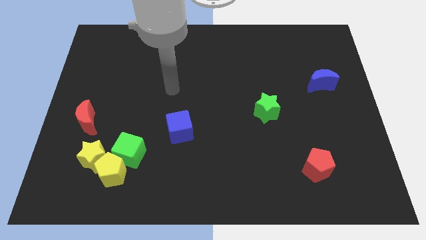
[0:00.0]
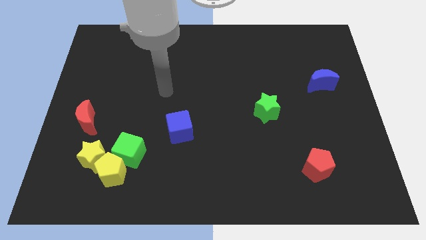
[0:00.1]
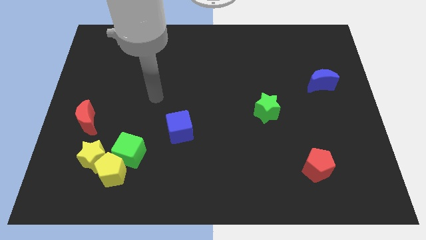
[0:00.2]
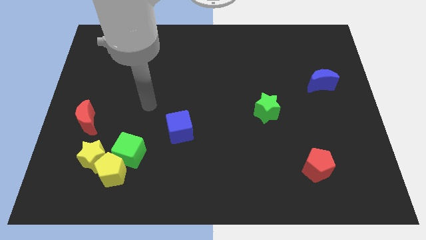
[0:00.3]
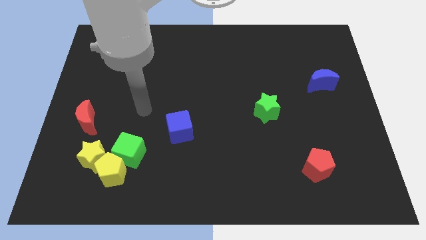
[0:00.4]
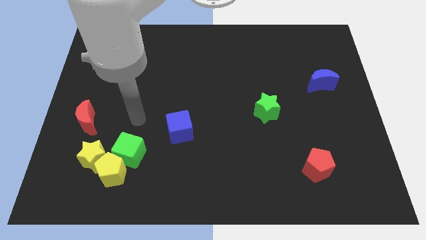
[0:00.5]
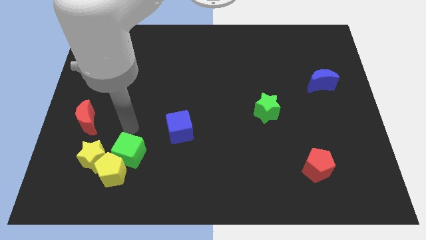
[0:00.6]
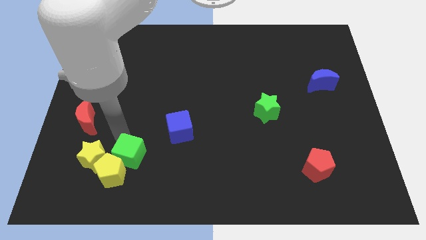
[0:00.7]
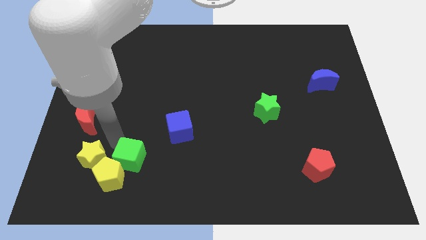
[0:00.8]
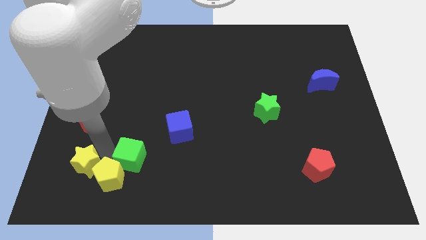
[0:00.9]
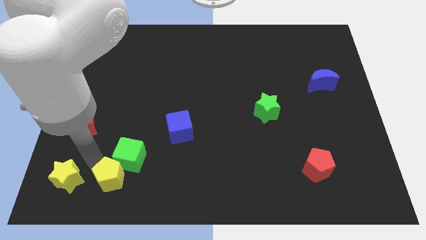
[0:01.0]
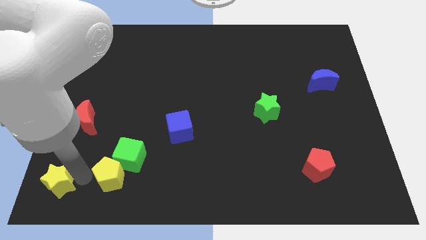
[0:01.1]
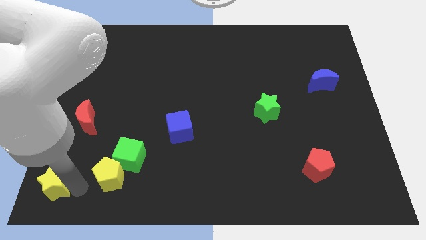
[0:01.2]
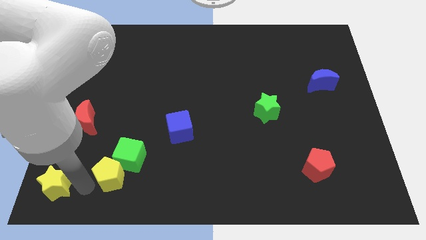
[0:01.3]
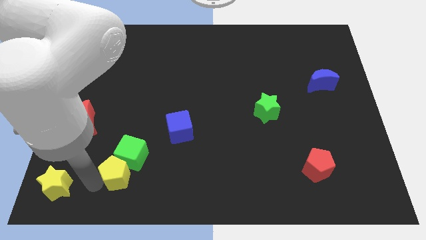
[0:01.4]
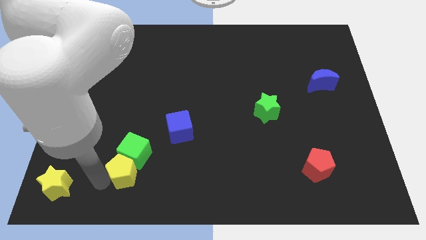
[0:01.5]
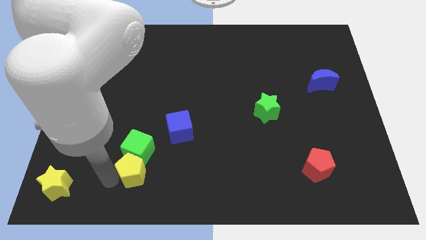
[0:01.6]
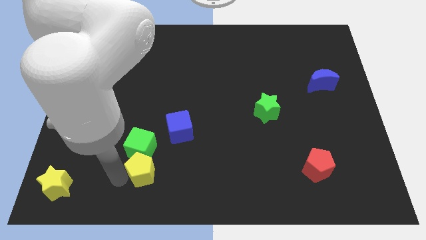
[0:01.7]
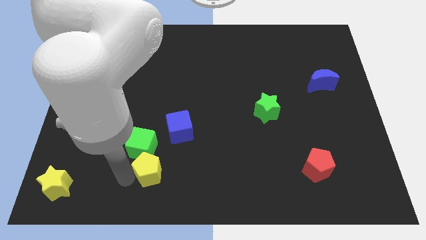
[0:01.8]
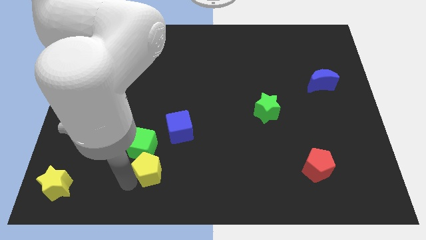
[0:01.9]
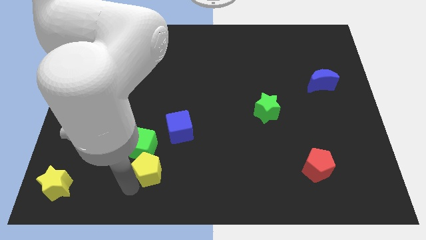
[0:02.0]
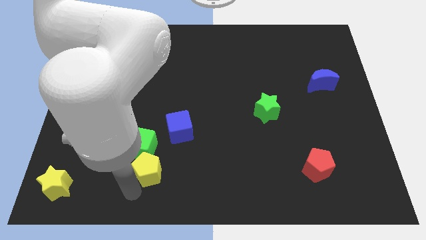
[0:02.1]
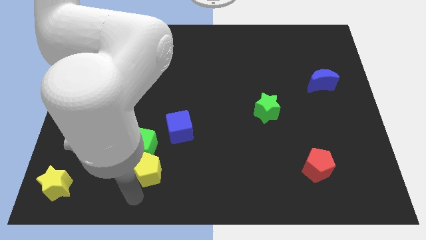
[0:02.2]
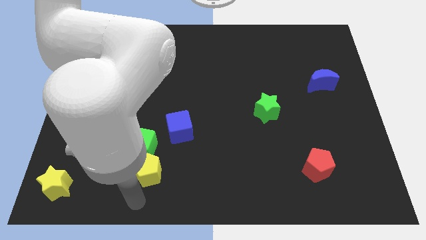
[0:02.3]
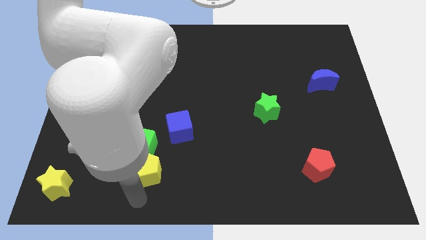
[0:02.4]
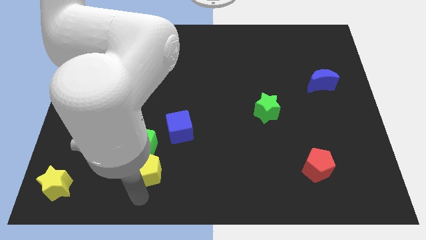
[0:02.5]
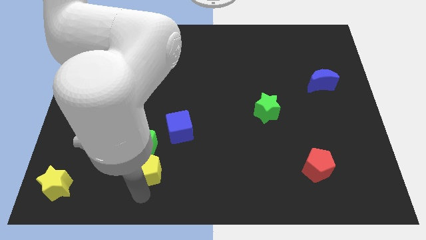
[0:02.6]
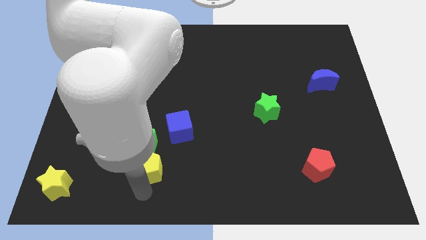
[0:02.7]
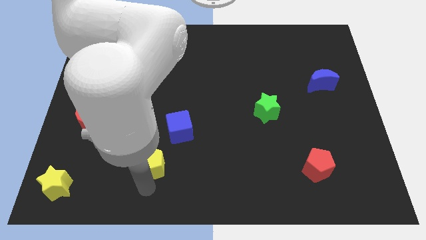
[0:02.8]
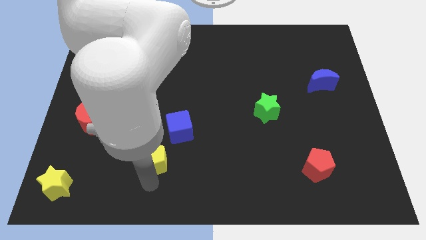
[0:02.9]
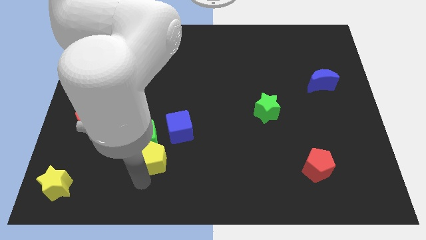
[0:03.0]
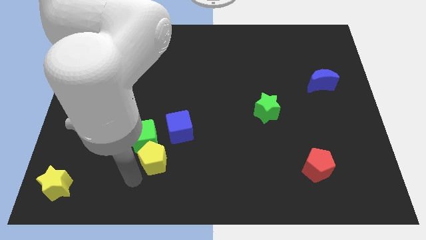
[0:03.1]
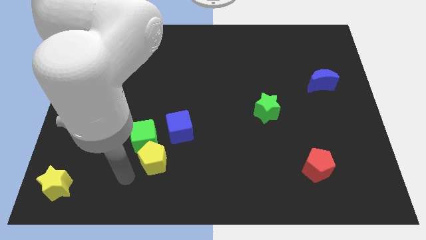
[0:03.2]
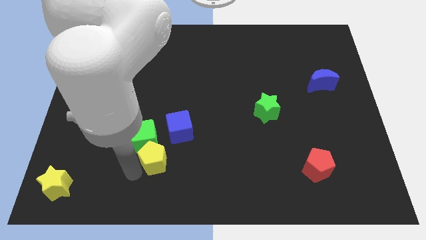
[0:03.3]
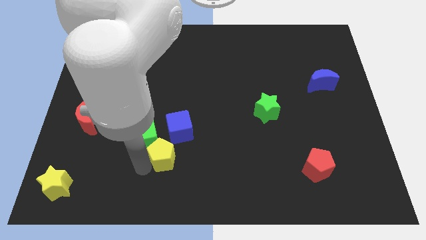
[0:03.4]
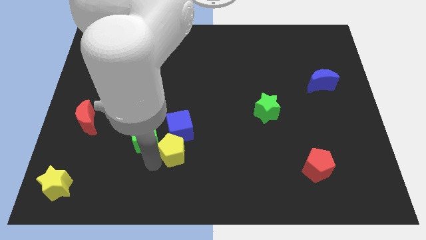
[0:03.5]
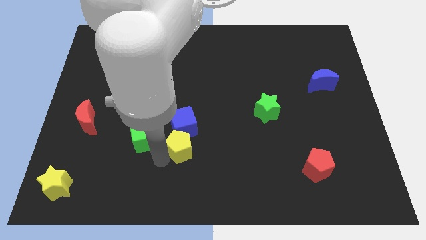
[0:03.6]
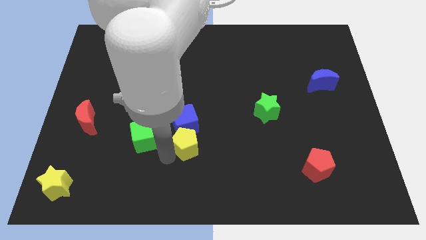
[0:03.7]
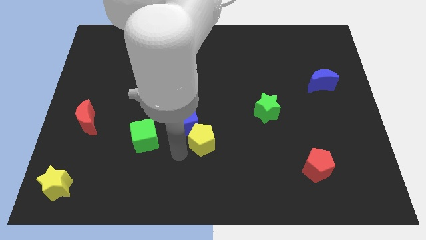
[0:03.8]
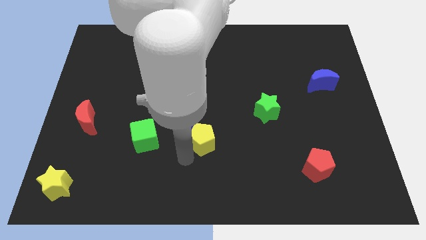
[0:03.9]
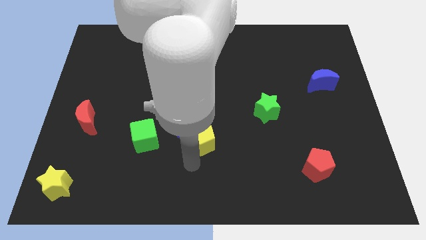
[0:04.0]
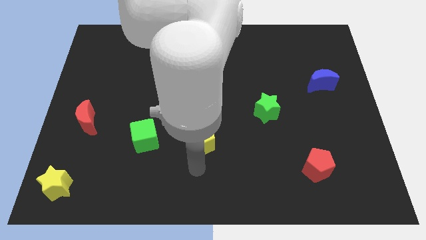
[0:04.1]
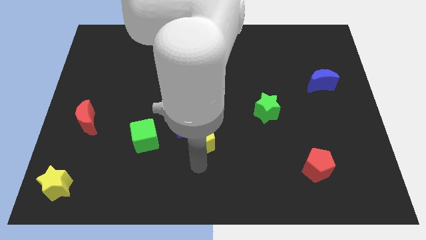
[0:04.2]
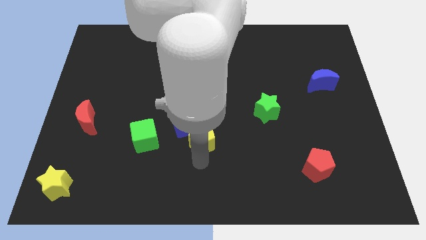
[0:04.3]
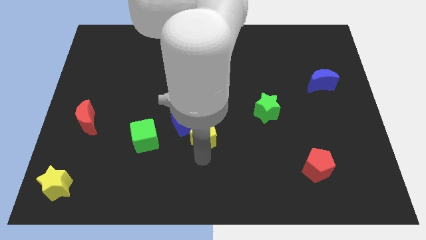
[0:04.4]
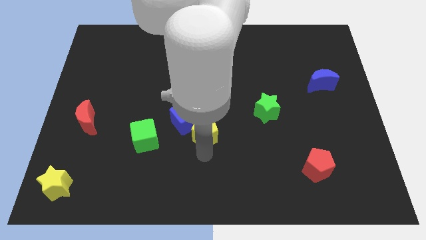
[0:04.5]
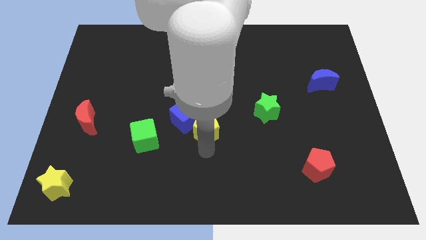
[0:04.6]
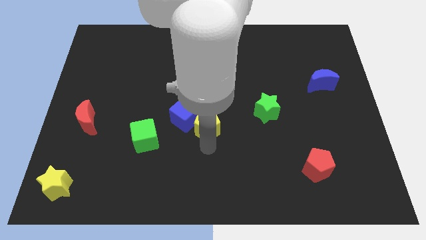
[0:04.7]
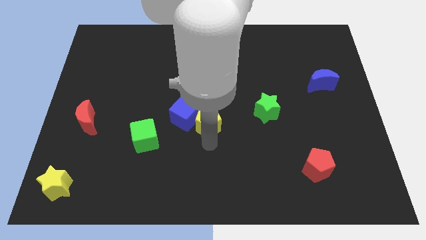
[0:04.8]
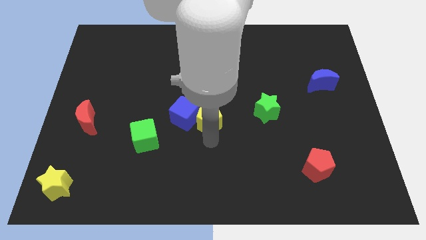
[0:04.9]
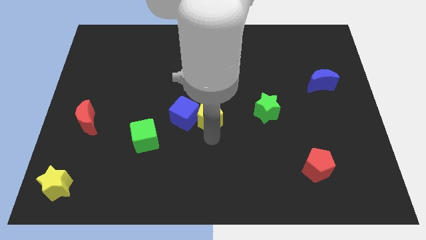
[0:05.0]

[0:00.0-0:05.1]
put the yellow pentagon to the top right of the blue cube

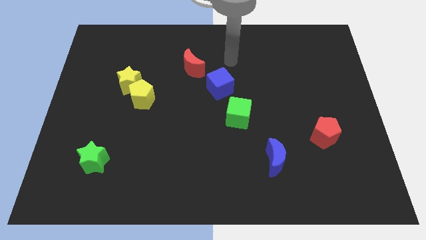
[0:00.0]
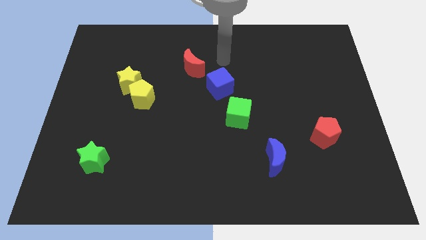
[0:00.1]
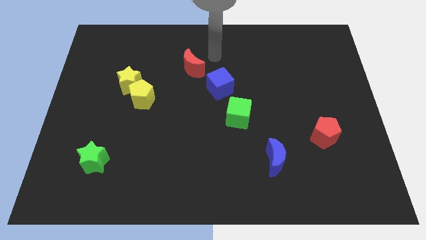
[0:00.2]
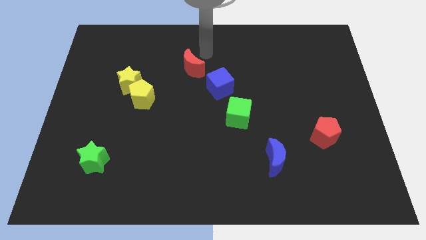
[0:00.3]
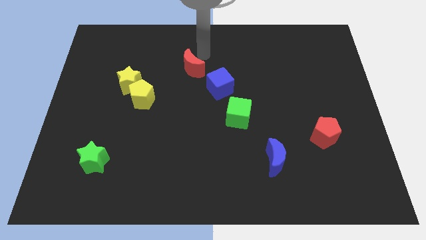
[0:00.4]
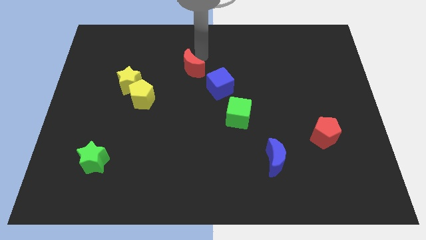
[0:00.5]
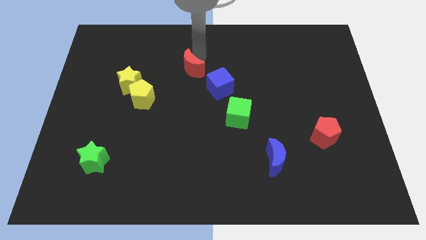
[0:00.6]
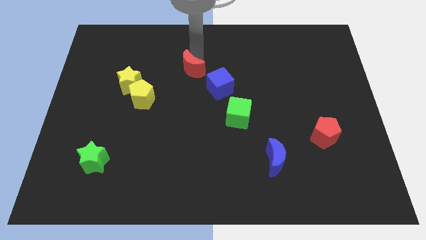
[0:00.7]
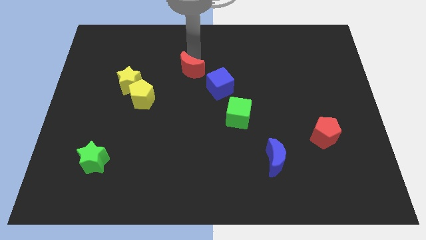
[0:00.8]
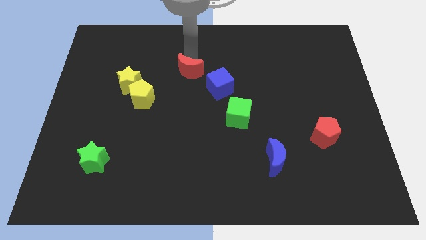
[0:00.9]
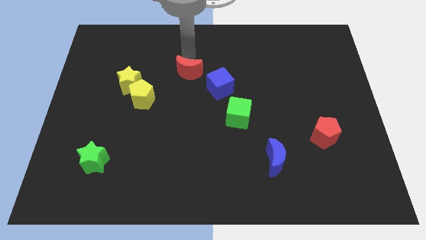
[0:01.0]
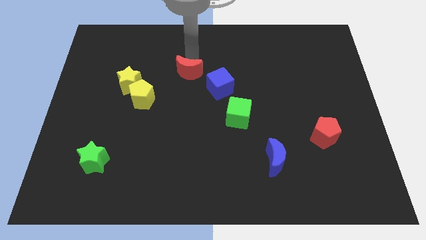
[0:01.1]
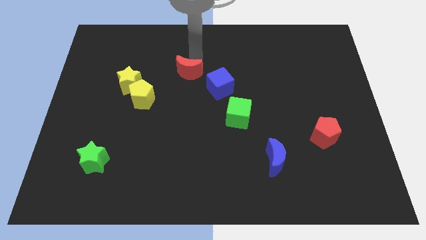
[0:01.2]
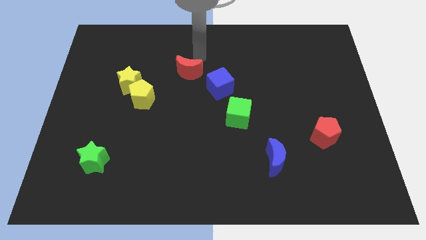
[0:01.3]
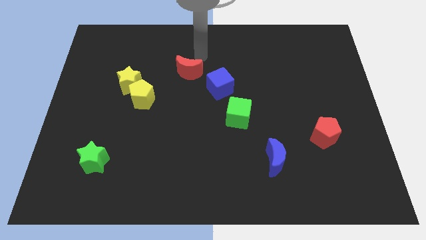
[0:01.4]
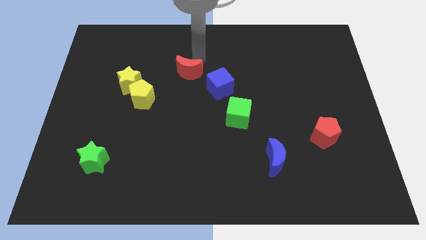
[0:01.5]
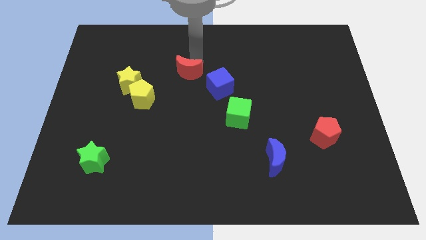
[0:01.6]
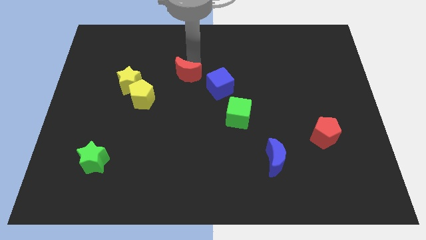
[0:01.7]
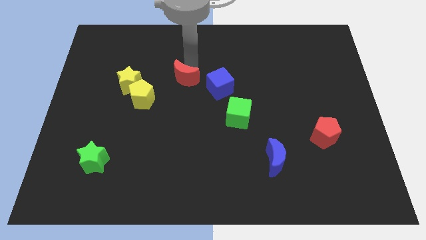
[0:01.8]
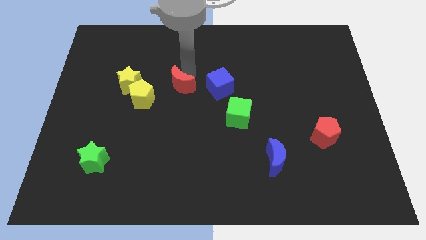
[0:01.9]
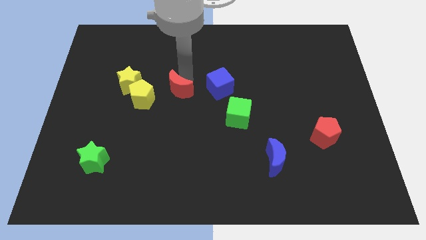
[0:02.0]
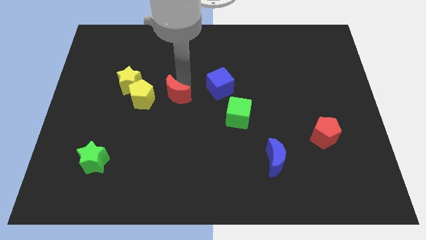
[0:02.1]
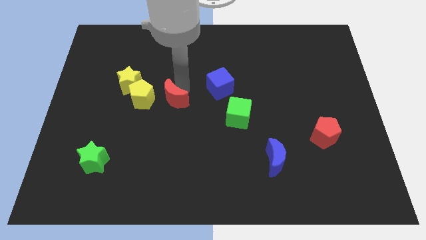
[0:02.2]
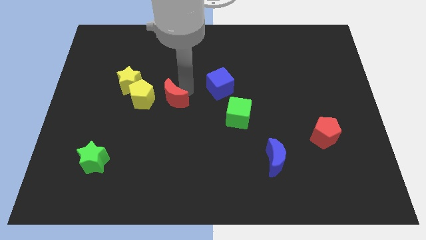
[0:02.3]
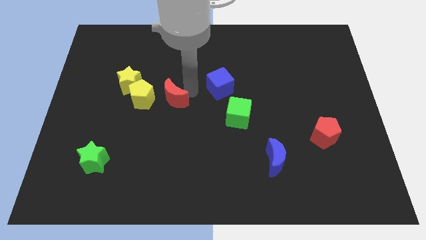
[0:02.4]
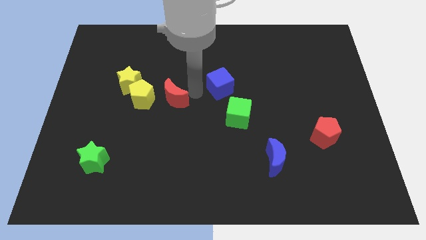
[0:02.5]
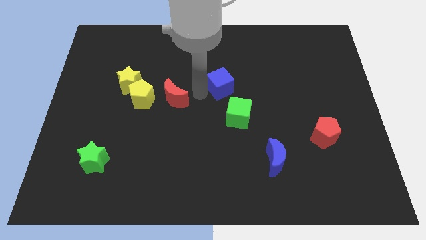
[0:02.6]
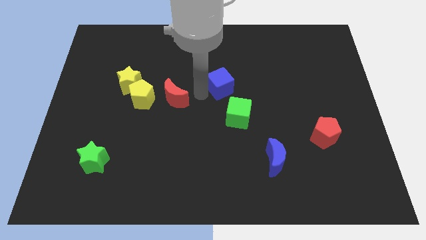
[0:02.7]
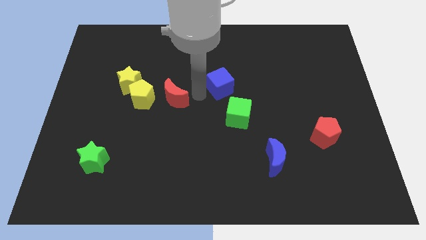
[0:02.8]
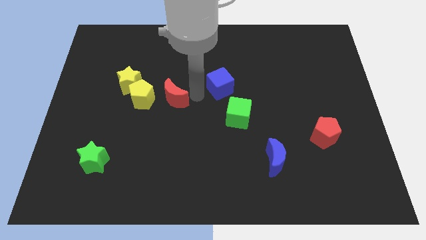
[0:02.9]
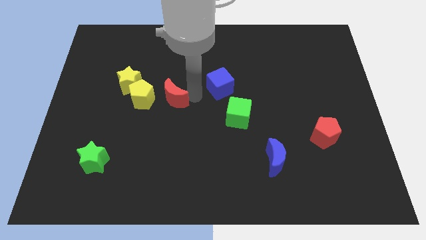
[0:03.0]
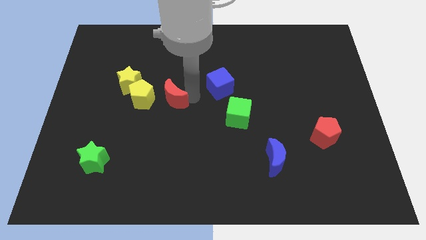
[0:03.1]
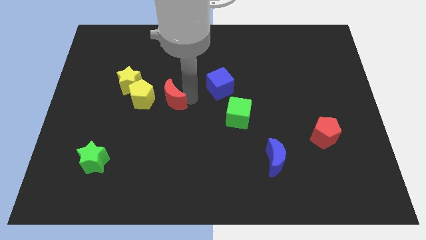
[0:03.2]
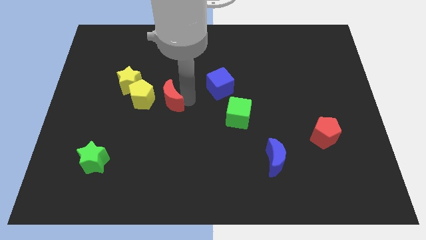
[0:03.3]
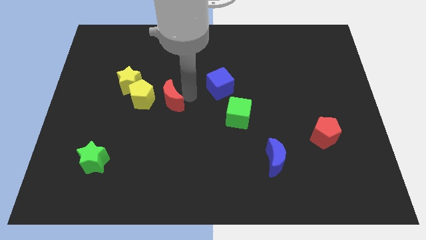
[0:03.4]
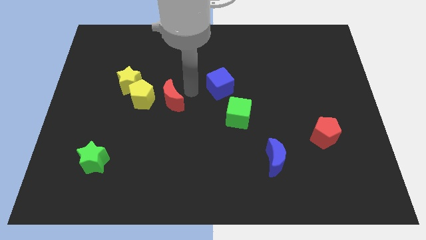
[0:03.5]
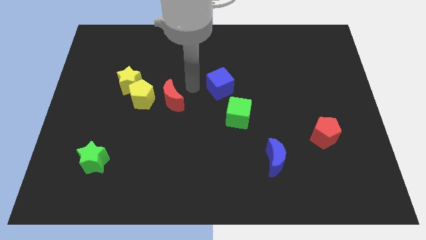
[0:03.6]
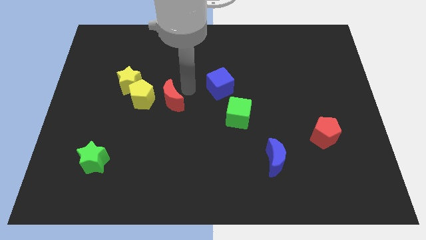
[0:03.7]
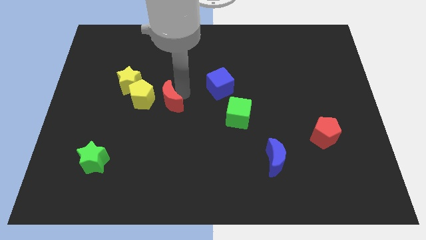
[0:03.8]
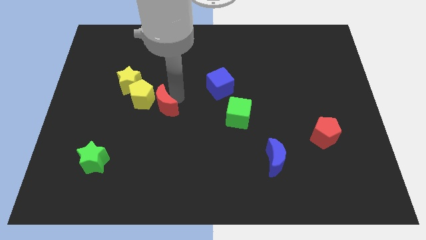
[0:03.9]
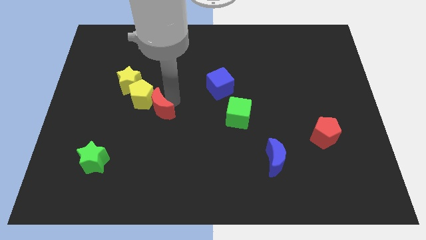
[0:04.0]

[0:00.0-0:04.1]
move the red moon below the yellow pentagon
